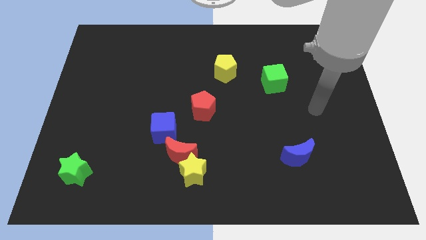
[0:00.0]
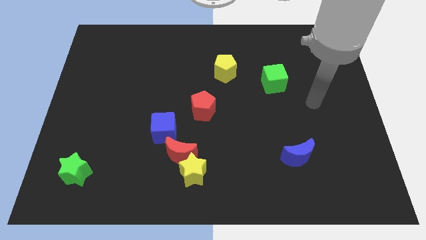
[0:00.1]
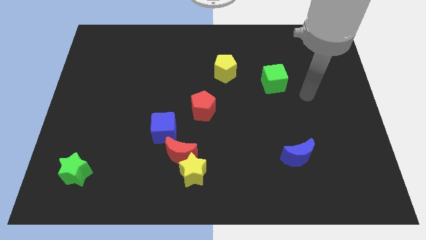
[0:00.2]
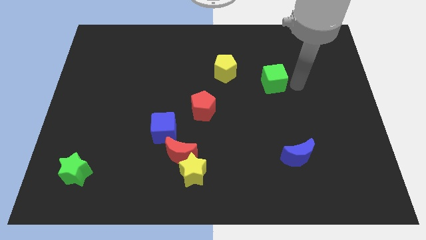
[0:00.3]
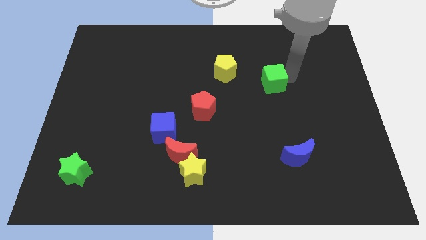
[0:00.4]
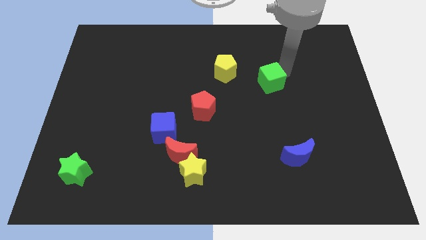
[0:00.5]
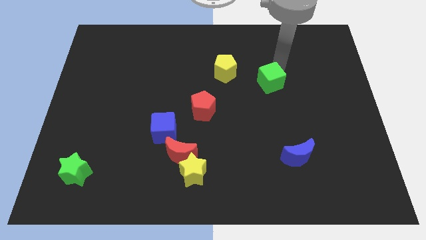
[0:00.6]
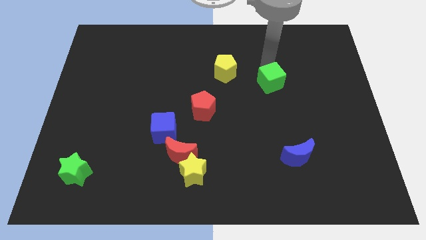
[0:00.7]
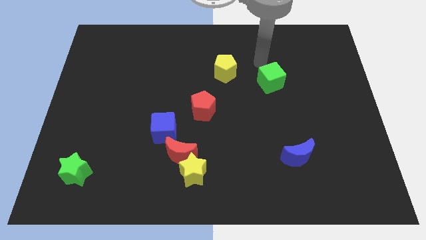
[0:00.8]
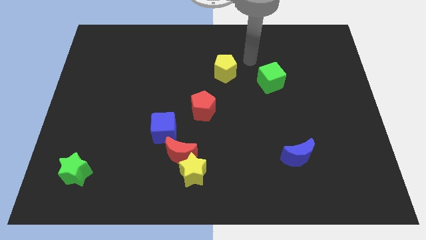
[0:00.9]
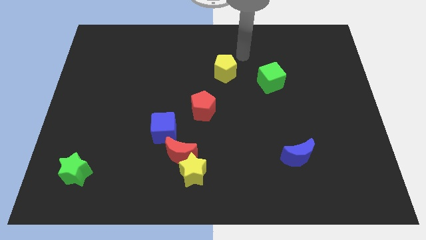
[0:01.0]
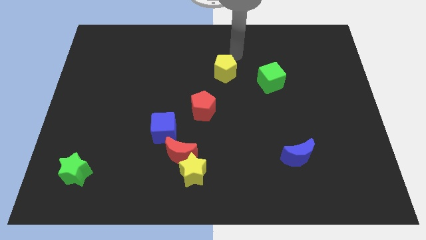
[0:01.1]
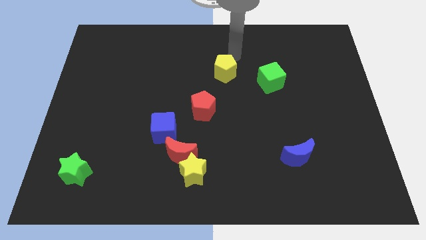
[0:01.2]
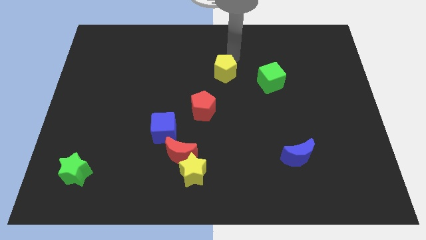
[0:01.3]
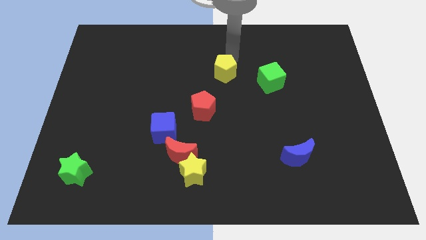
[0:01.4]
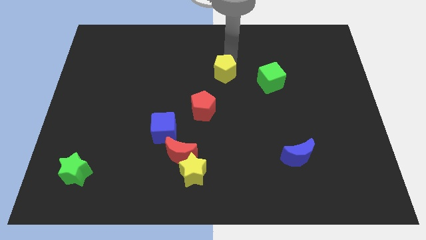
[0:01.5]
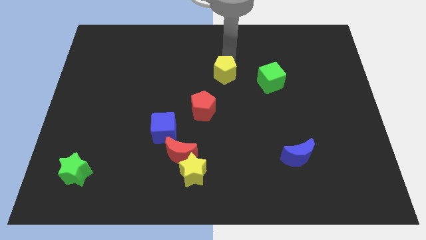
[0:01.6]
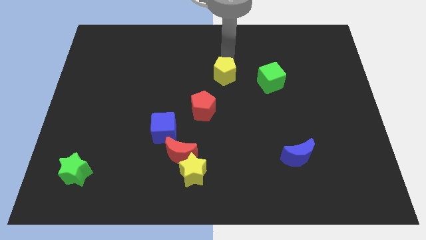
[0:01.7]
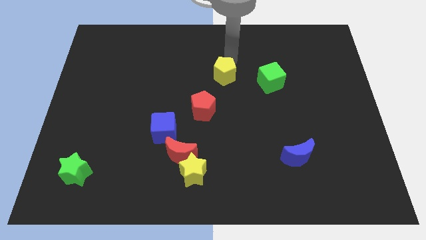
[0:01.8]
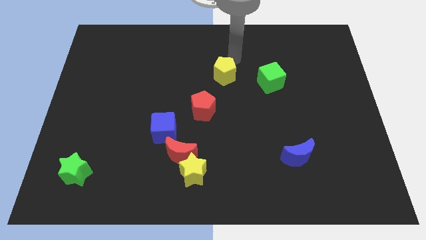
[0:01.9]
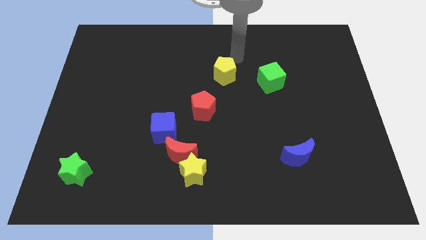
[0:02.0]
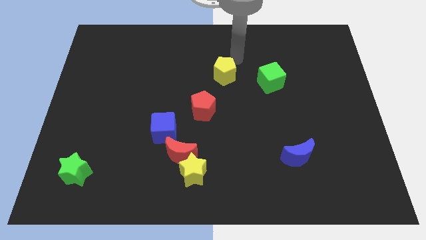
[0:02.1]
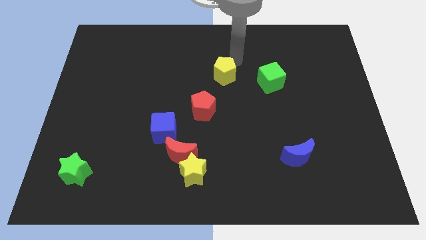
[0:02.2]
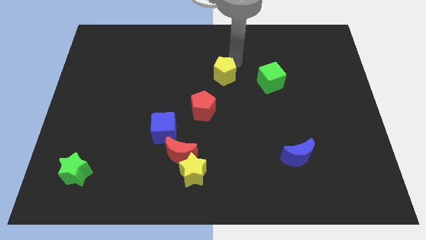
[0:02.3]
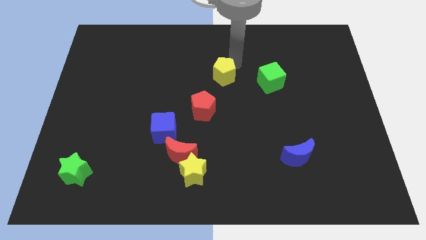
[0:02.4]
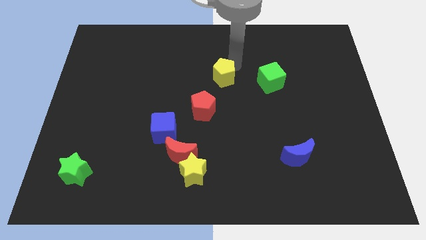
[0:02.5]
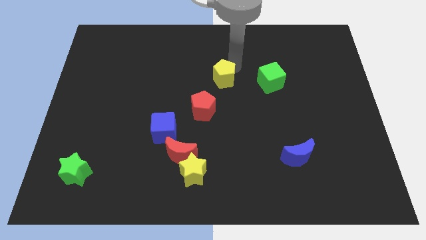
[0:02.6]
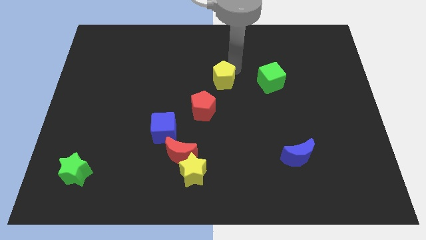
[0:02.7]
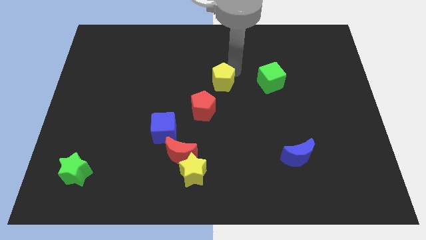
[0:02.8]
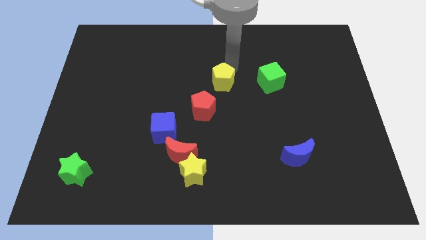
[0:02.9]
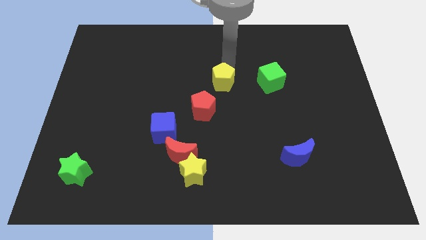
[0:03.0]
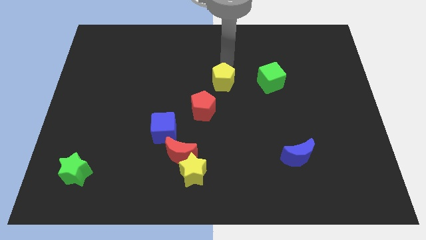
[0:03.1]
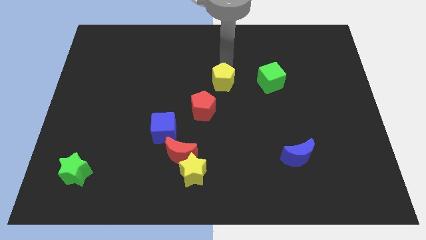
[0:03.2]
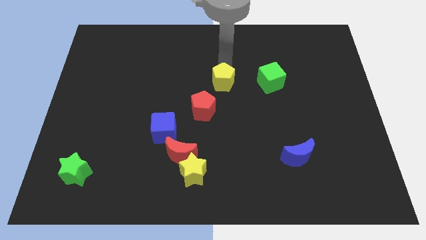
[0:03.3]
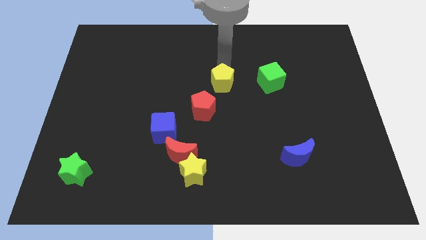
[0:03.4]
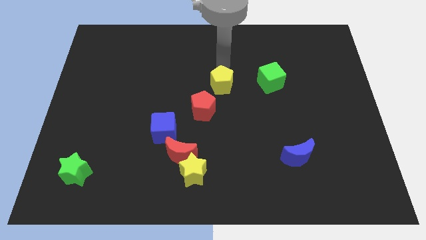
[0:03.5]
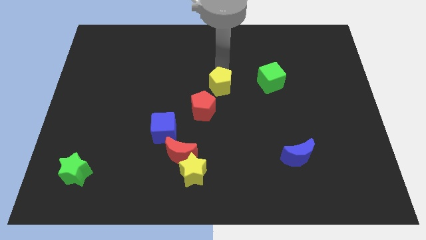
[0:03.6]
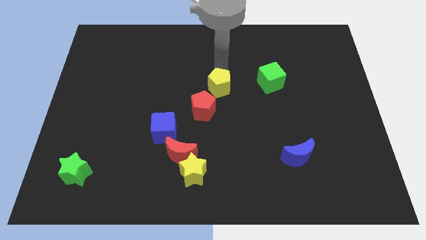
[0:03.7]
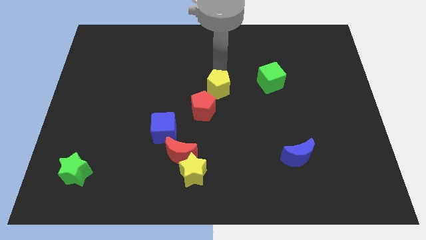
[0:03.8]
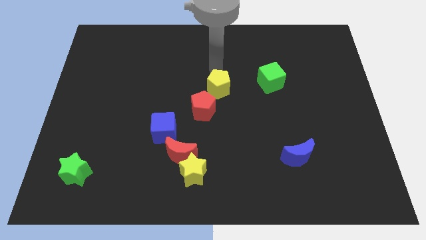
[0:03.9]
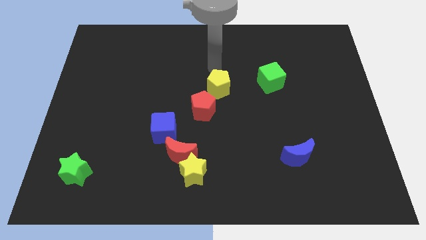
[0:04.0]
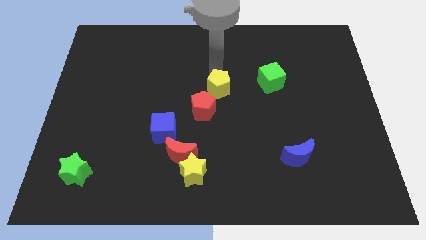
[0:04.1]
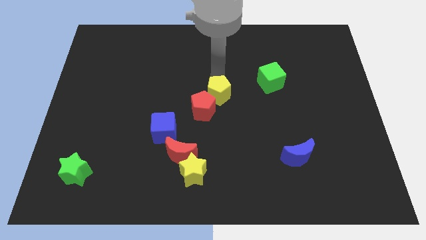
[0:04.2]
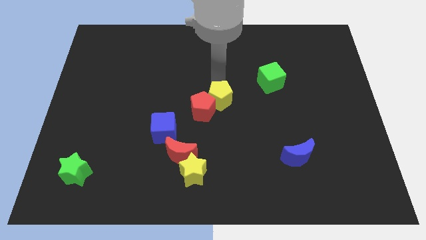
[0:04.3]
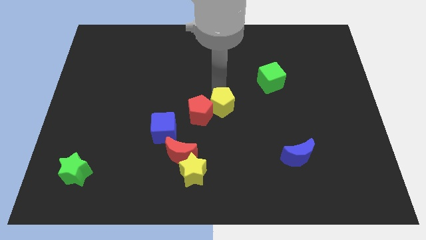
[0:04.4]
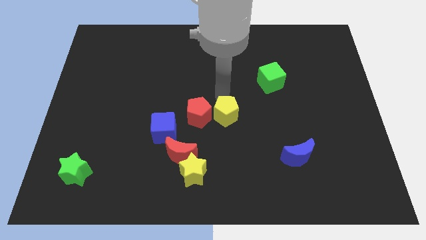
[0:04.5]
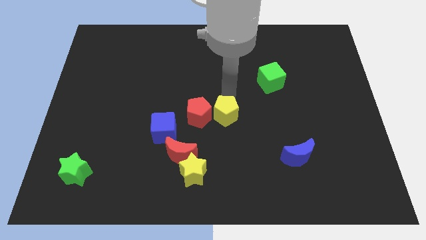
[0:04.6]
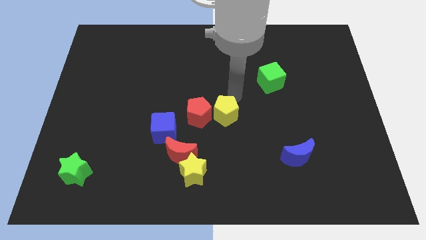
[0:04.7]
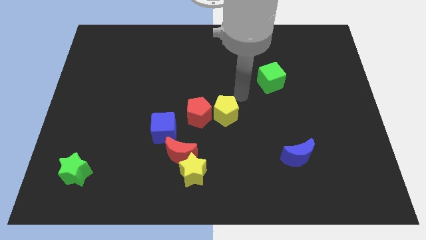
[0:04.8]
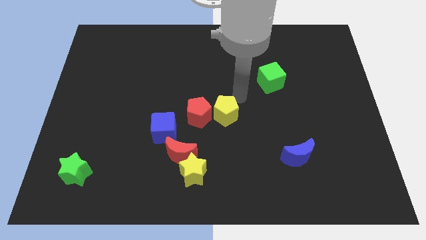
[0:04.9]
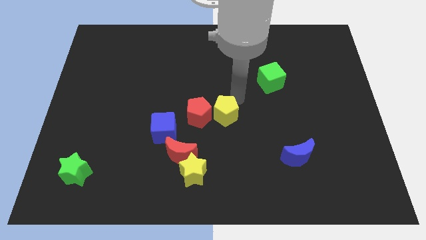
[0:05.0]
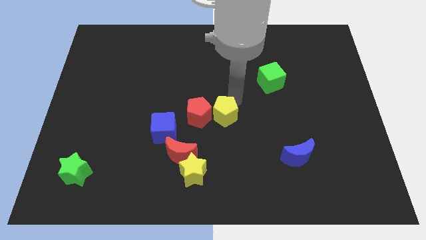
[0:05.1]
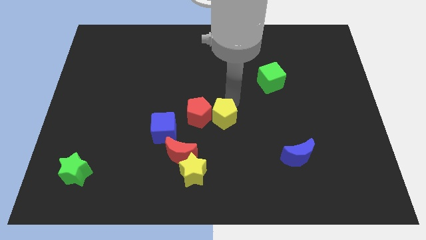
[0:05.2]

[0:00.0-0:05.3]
slide the yellow pentagon just right of the blue cube

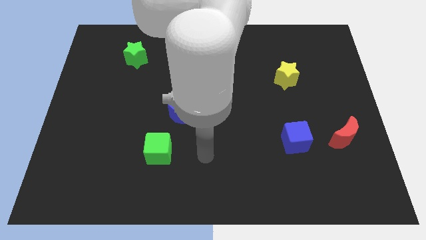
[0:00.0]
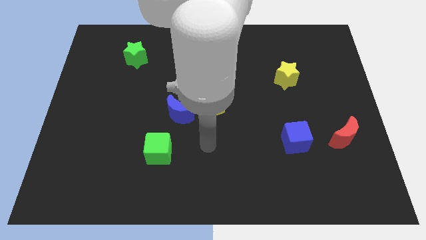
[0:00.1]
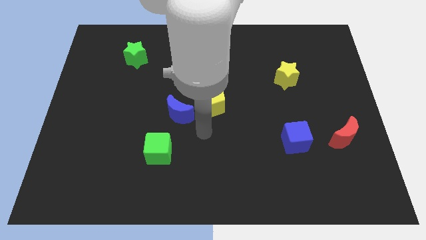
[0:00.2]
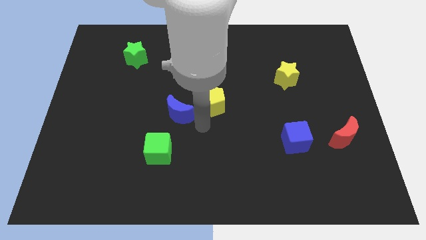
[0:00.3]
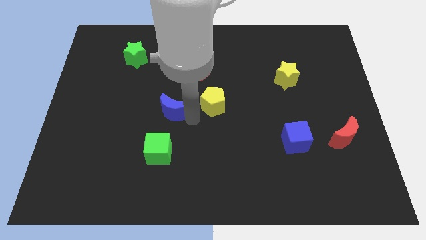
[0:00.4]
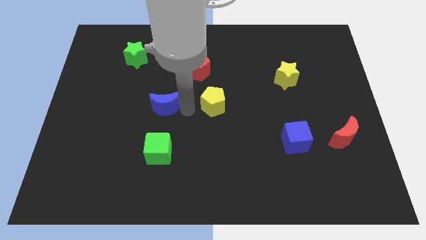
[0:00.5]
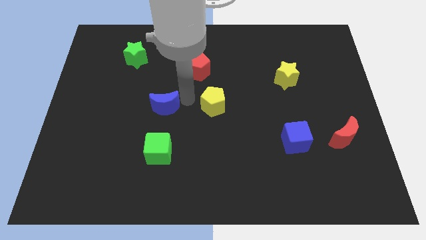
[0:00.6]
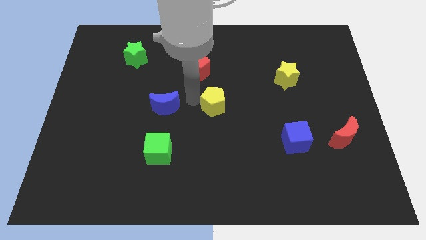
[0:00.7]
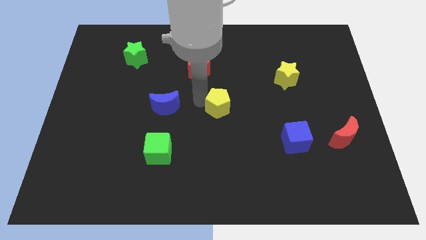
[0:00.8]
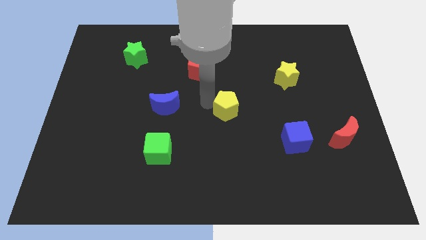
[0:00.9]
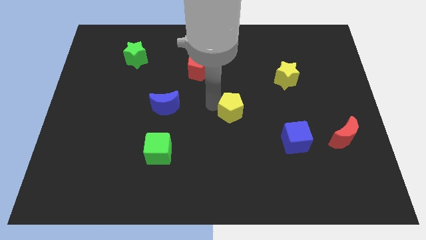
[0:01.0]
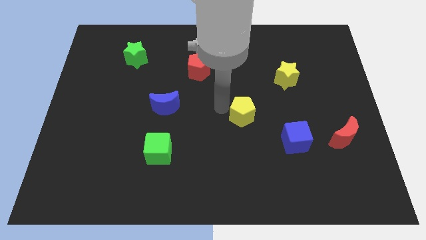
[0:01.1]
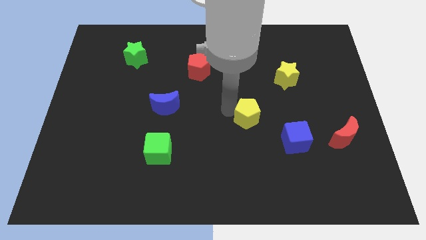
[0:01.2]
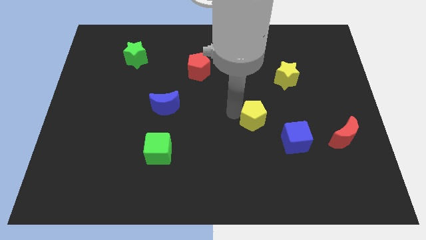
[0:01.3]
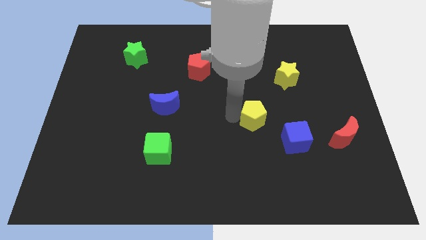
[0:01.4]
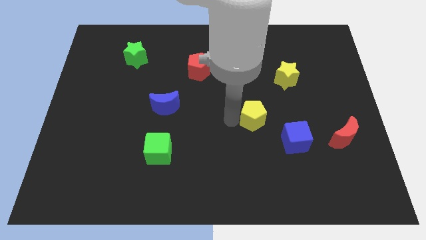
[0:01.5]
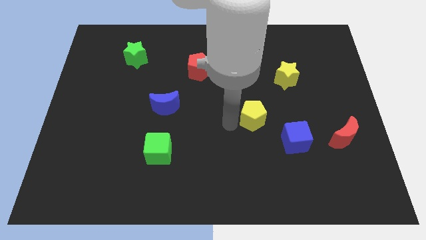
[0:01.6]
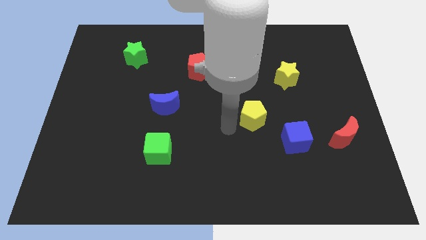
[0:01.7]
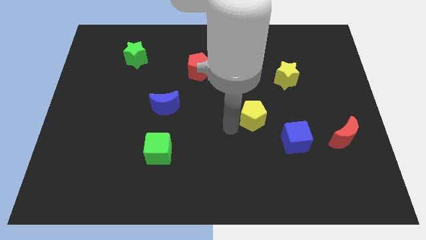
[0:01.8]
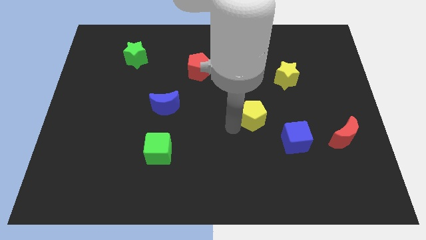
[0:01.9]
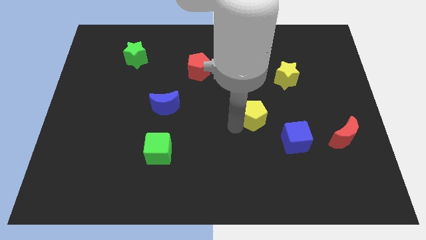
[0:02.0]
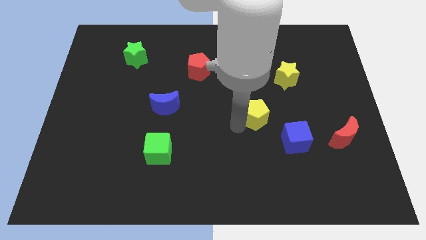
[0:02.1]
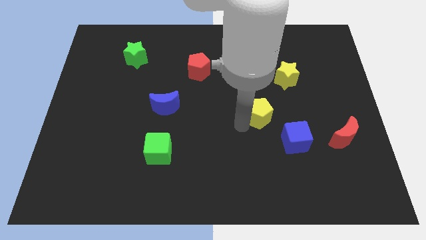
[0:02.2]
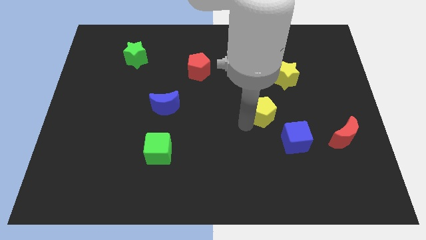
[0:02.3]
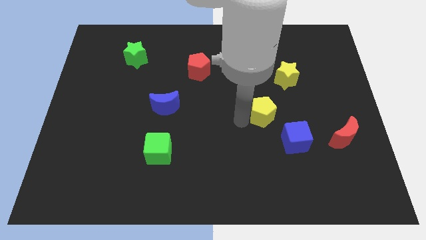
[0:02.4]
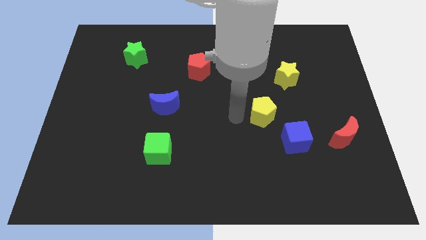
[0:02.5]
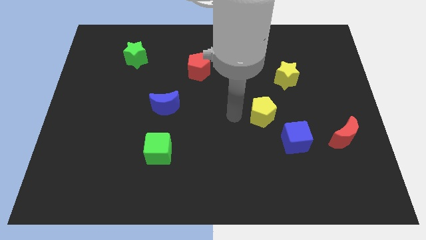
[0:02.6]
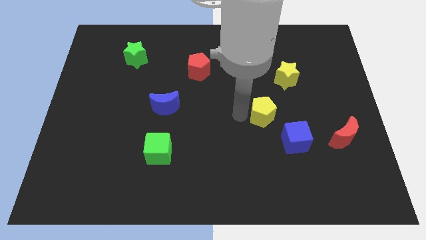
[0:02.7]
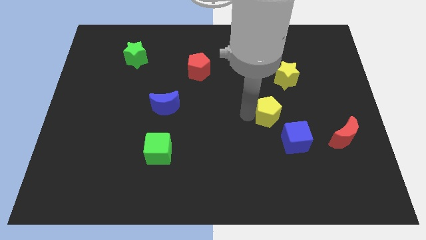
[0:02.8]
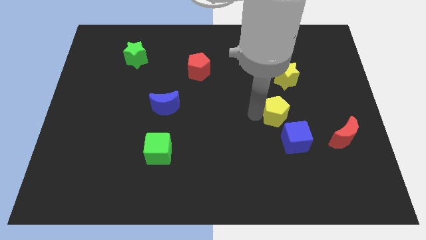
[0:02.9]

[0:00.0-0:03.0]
push the yellow pentagon below the yellow star
